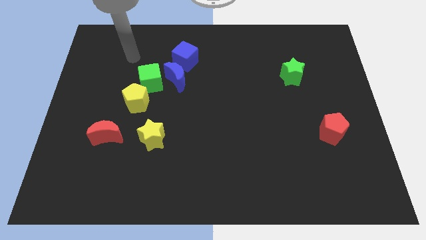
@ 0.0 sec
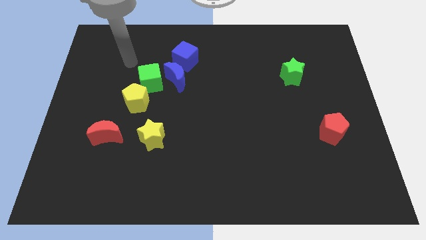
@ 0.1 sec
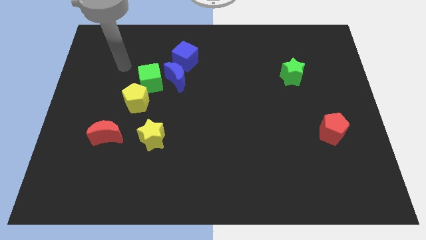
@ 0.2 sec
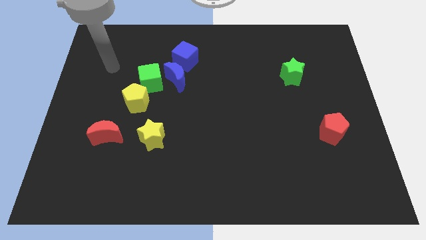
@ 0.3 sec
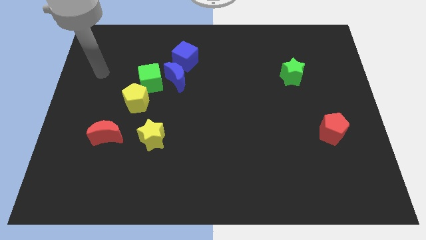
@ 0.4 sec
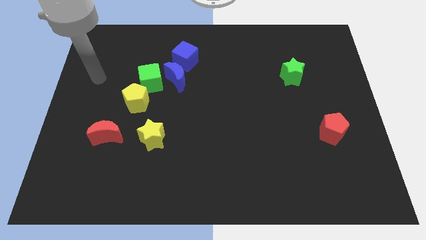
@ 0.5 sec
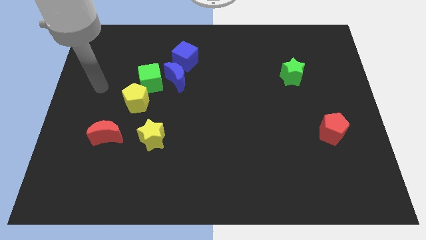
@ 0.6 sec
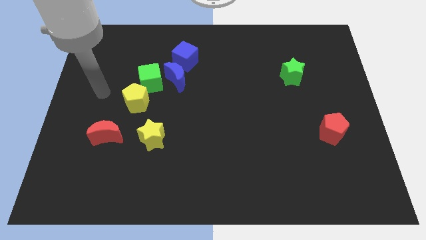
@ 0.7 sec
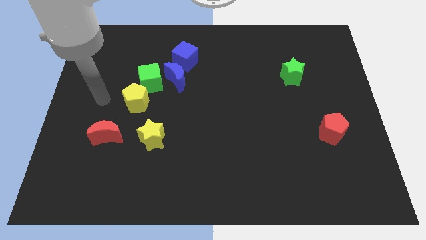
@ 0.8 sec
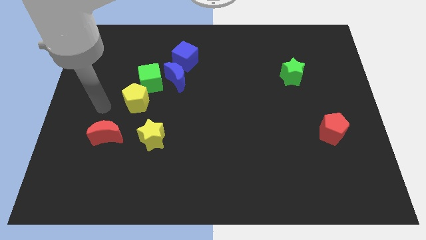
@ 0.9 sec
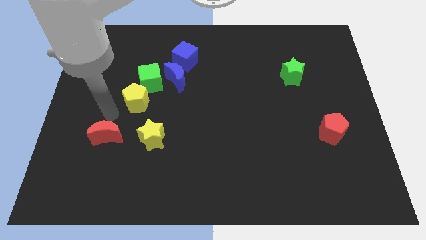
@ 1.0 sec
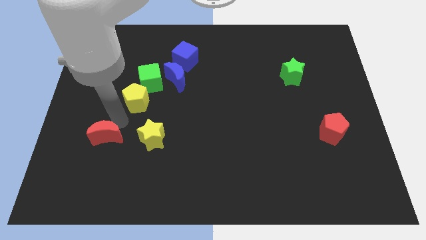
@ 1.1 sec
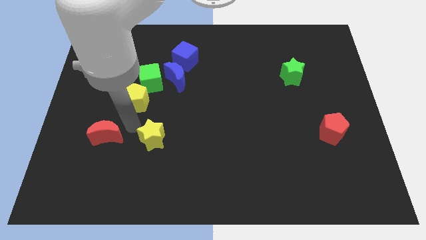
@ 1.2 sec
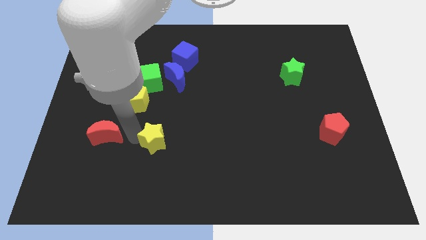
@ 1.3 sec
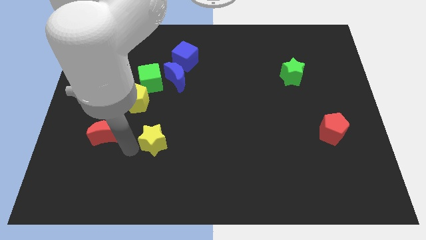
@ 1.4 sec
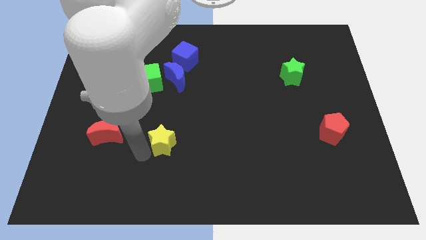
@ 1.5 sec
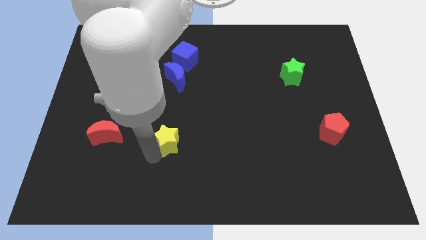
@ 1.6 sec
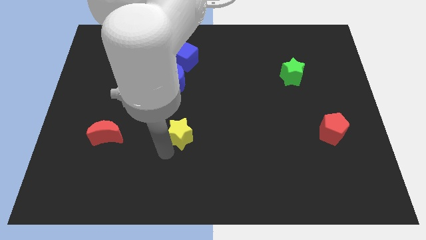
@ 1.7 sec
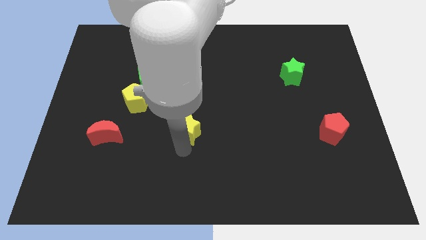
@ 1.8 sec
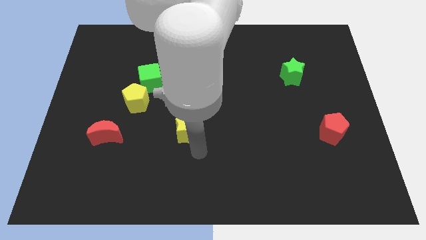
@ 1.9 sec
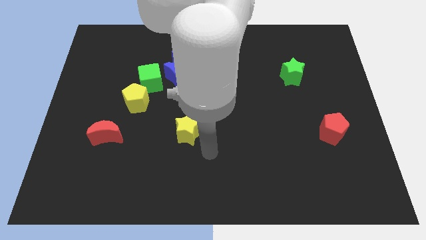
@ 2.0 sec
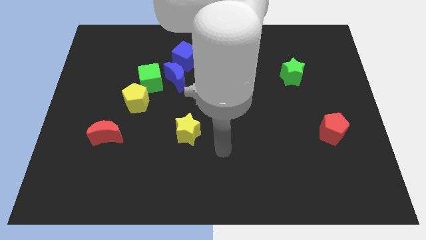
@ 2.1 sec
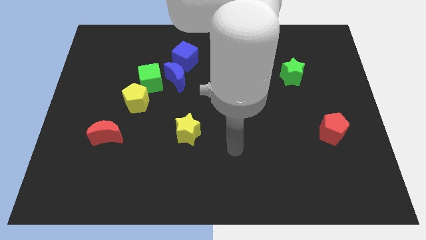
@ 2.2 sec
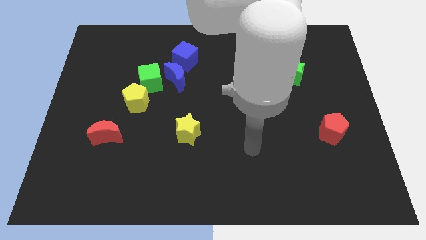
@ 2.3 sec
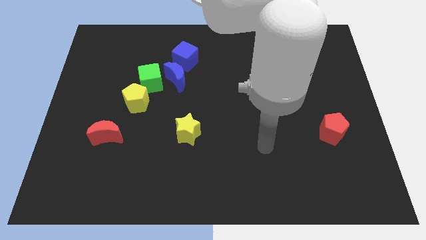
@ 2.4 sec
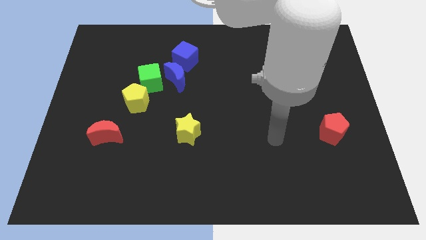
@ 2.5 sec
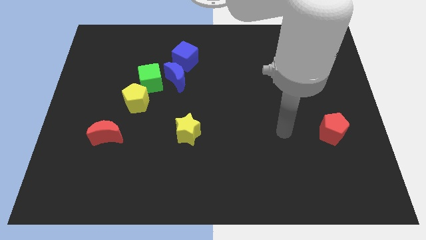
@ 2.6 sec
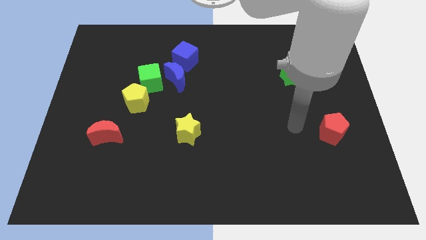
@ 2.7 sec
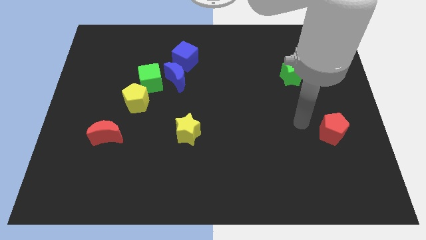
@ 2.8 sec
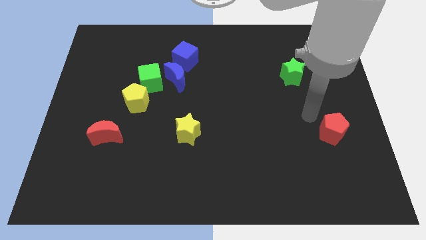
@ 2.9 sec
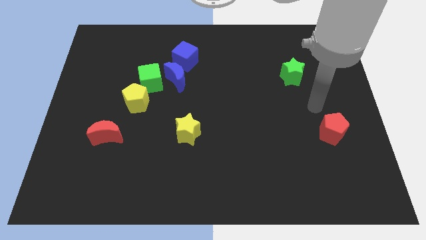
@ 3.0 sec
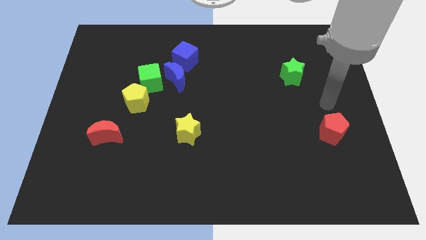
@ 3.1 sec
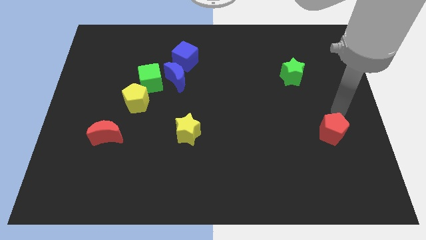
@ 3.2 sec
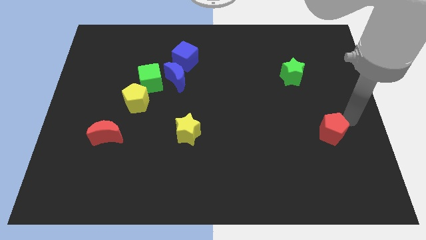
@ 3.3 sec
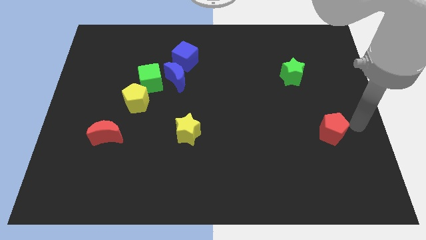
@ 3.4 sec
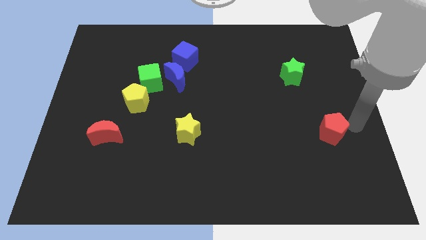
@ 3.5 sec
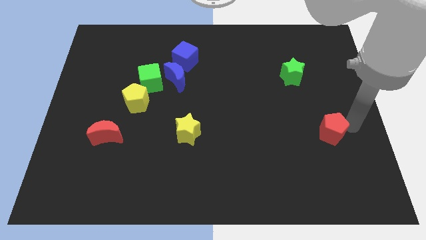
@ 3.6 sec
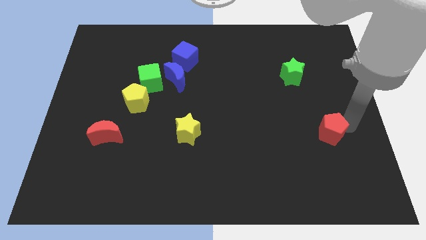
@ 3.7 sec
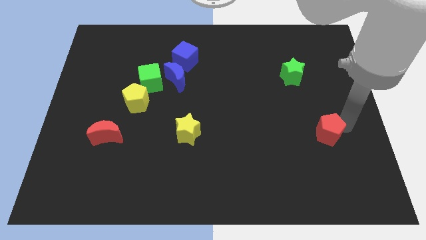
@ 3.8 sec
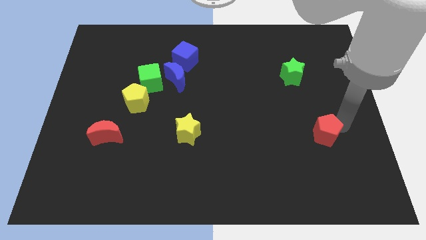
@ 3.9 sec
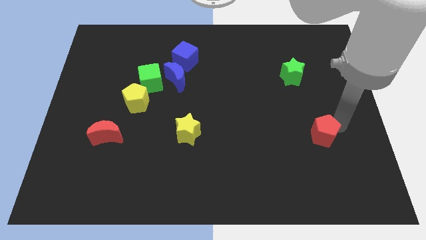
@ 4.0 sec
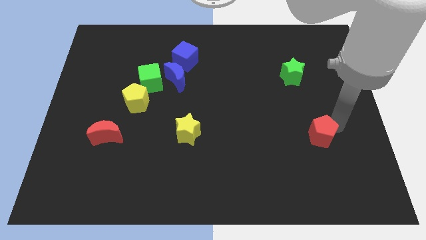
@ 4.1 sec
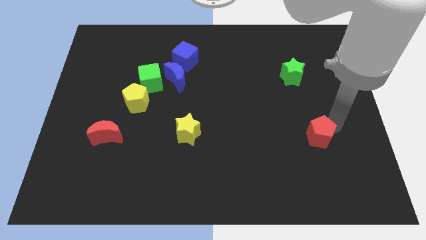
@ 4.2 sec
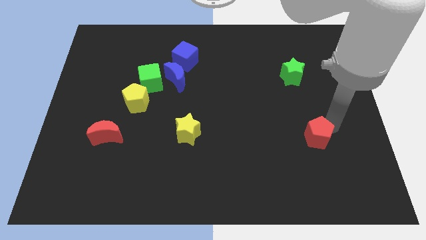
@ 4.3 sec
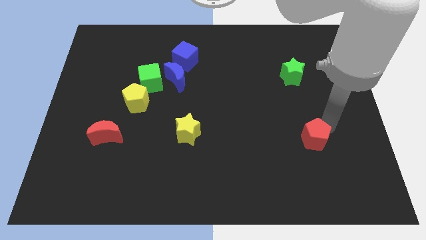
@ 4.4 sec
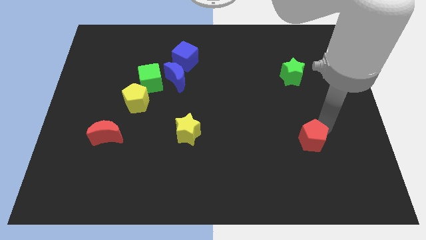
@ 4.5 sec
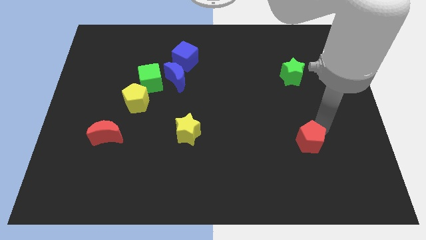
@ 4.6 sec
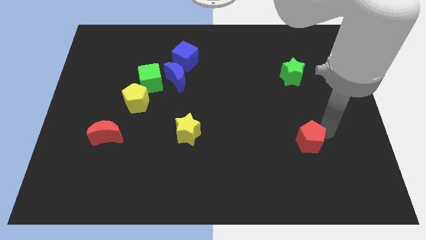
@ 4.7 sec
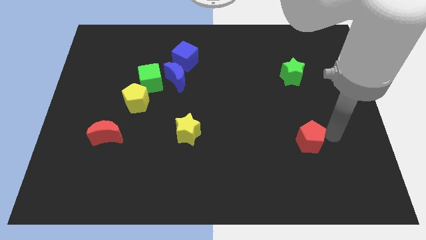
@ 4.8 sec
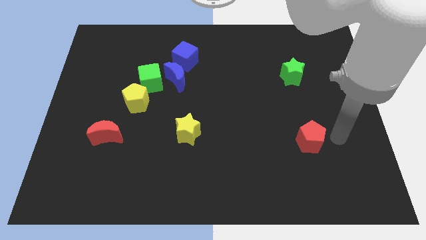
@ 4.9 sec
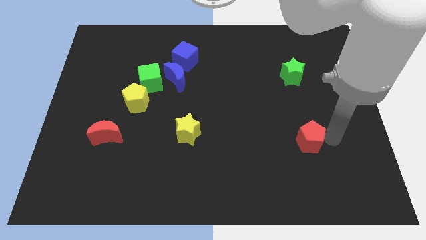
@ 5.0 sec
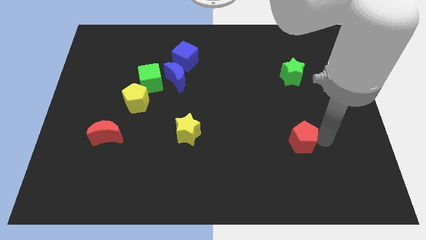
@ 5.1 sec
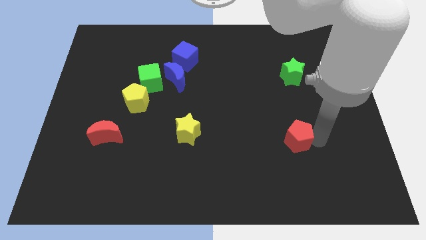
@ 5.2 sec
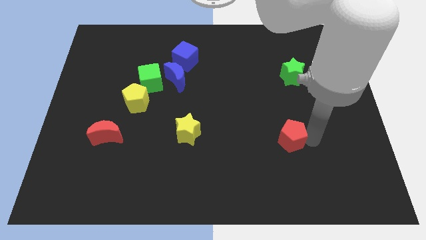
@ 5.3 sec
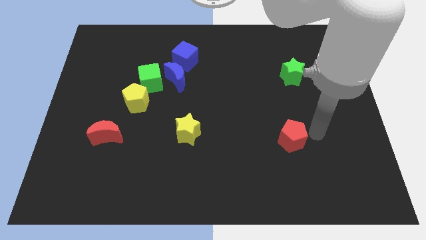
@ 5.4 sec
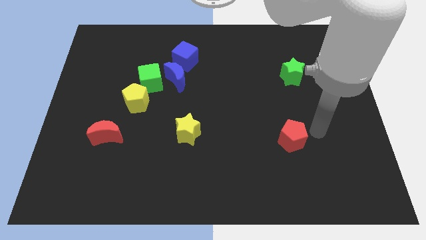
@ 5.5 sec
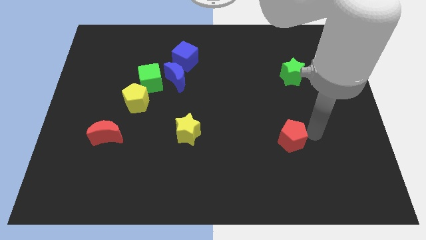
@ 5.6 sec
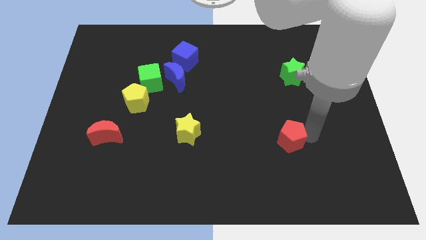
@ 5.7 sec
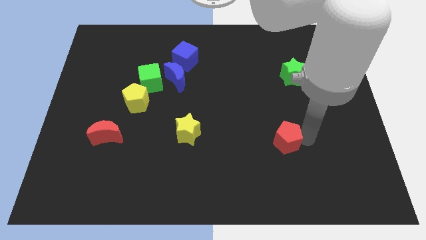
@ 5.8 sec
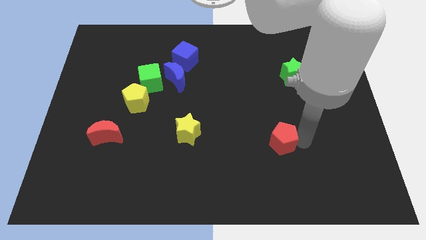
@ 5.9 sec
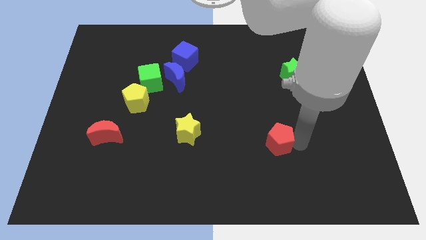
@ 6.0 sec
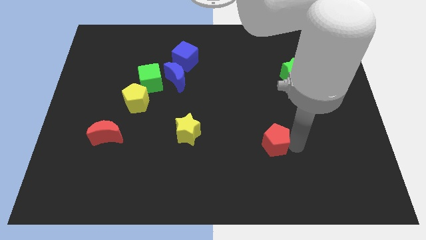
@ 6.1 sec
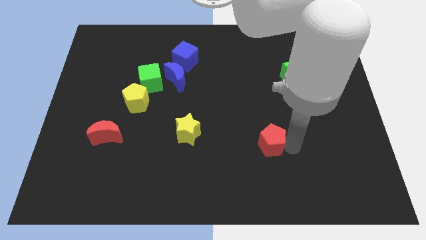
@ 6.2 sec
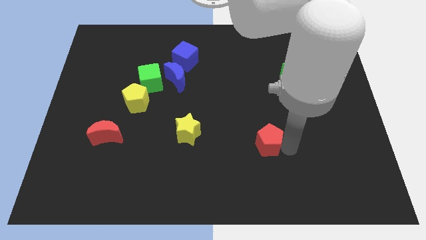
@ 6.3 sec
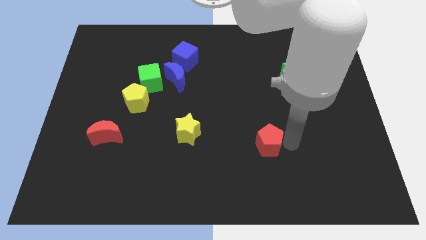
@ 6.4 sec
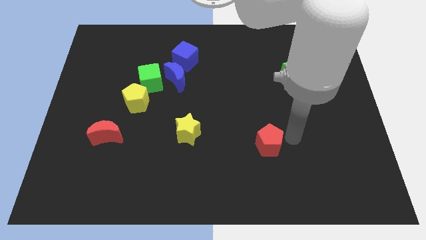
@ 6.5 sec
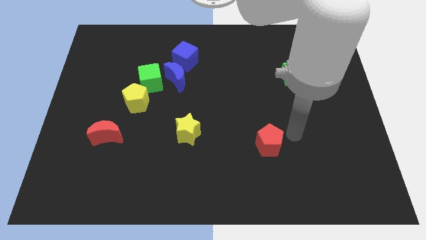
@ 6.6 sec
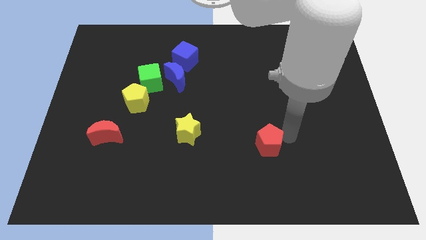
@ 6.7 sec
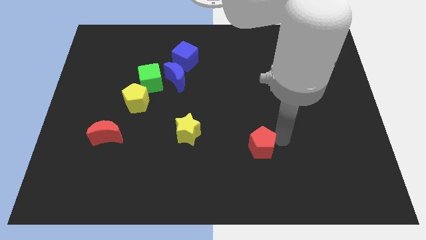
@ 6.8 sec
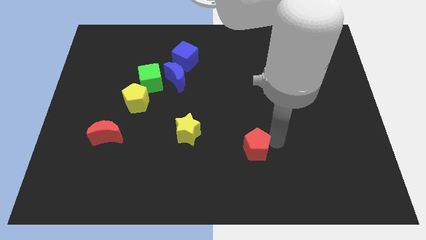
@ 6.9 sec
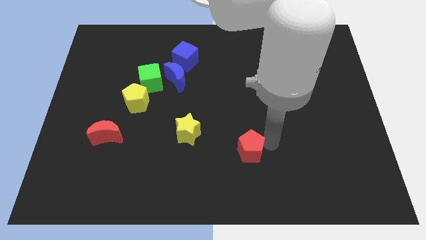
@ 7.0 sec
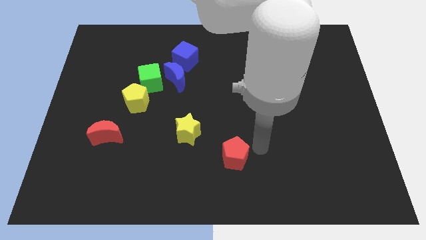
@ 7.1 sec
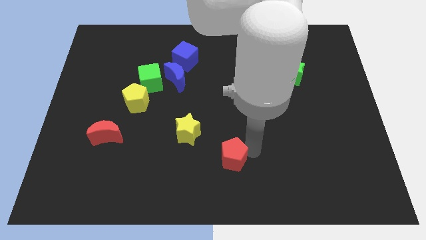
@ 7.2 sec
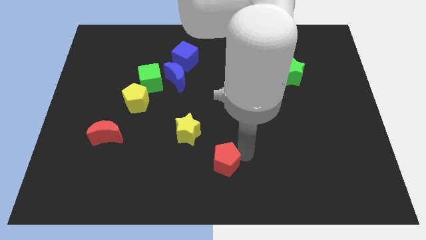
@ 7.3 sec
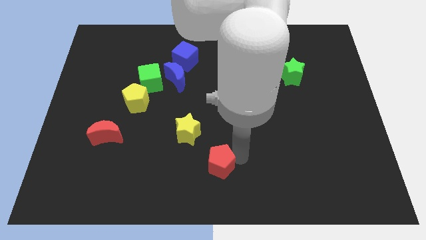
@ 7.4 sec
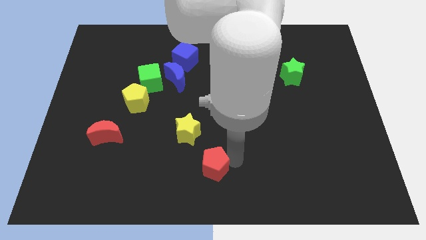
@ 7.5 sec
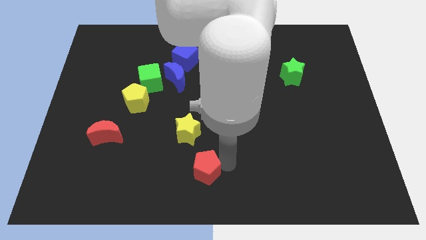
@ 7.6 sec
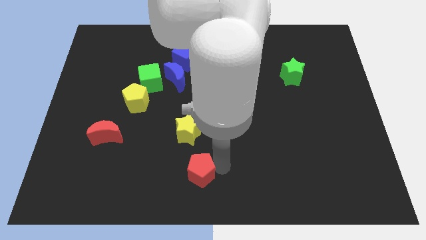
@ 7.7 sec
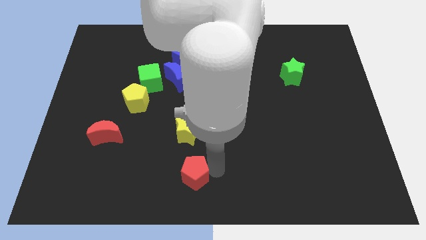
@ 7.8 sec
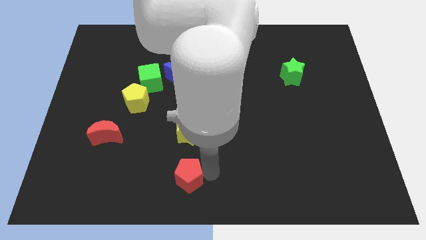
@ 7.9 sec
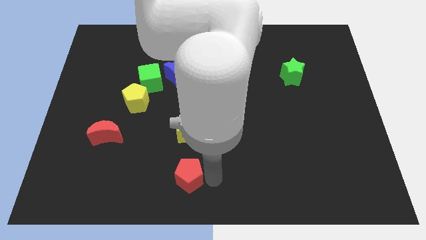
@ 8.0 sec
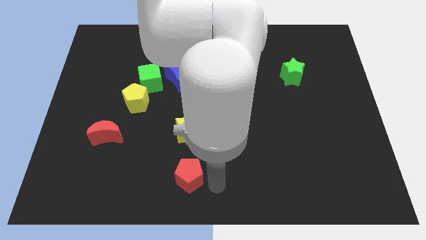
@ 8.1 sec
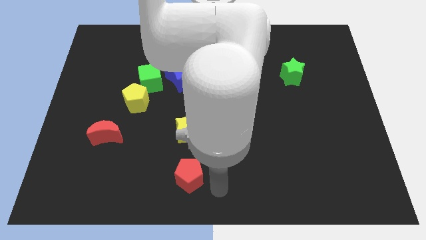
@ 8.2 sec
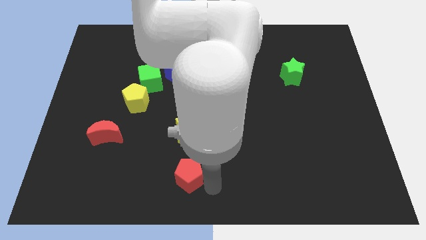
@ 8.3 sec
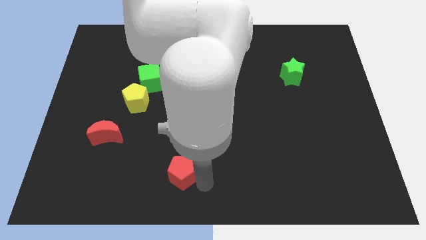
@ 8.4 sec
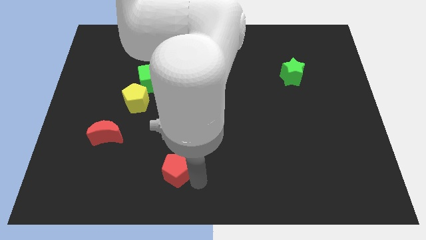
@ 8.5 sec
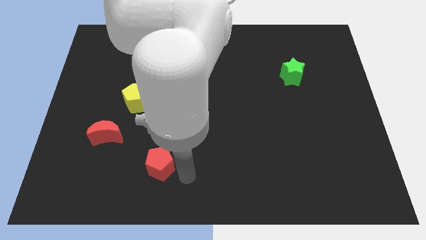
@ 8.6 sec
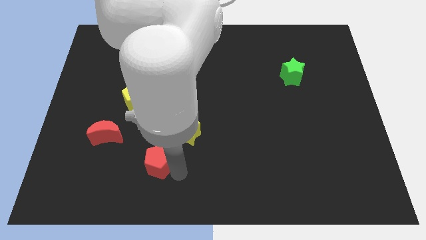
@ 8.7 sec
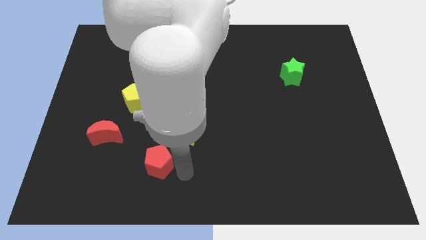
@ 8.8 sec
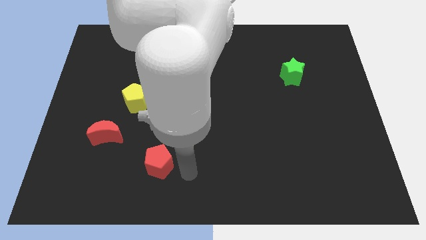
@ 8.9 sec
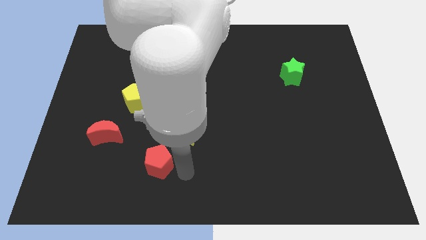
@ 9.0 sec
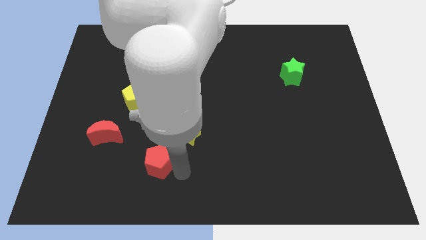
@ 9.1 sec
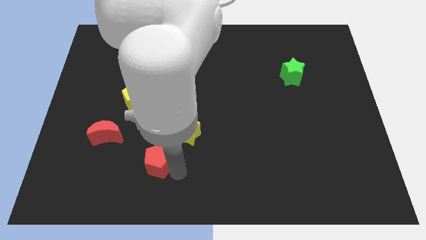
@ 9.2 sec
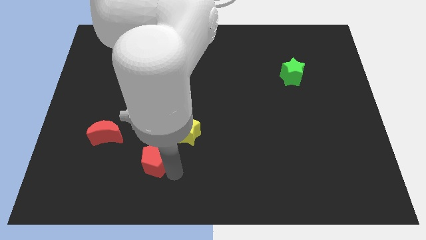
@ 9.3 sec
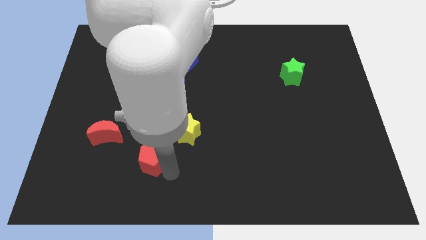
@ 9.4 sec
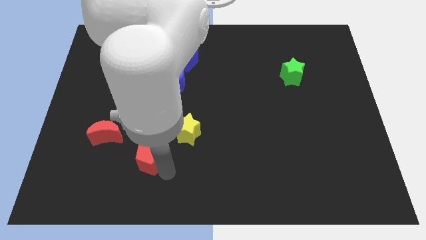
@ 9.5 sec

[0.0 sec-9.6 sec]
push the red pentagon to the bottom right side of the red moon
